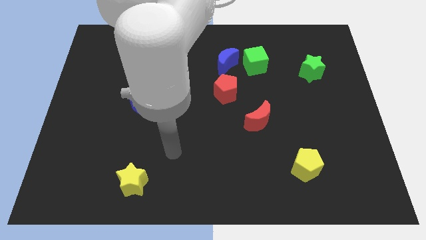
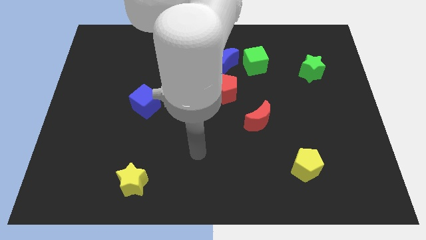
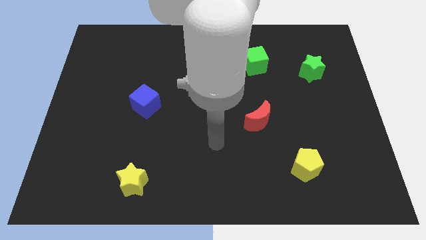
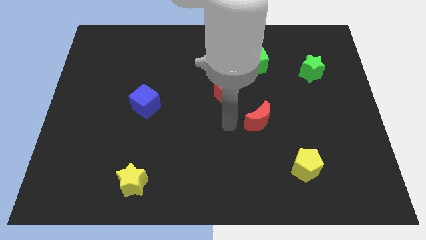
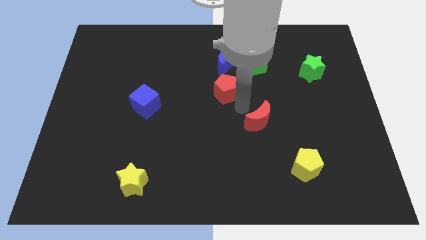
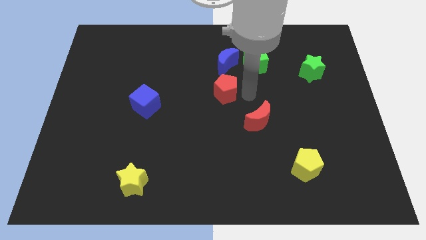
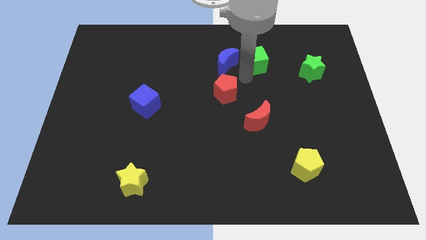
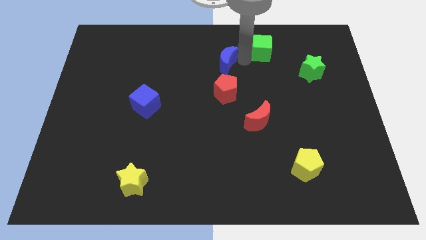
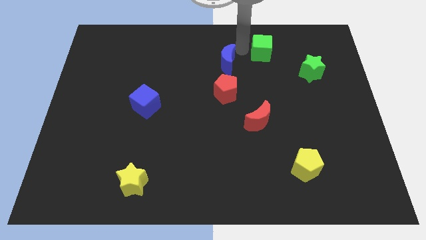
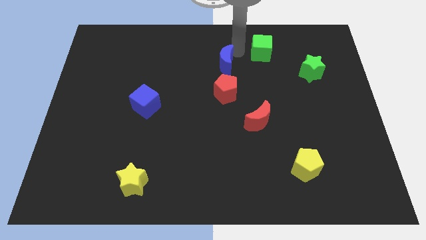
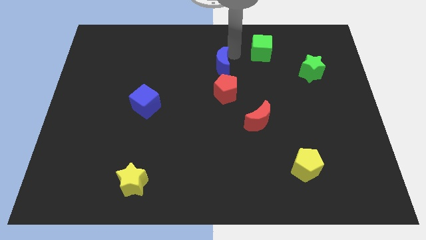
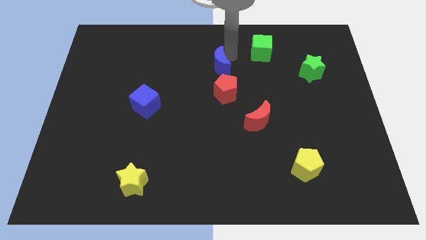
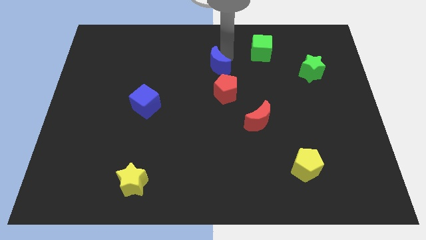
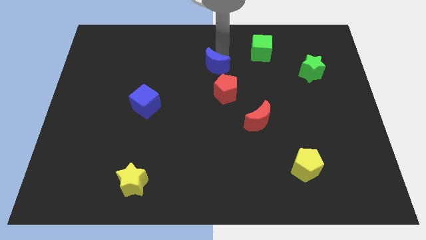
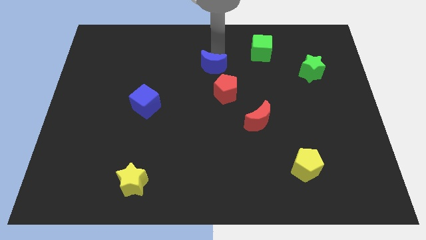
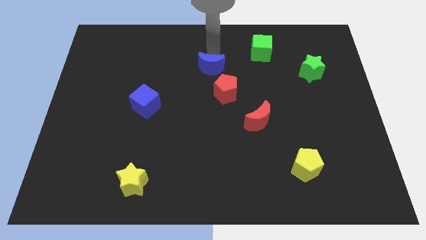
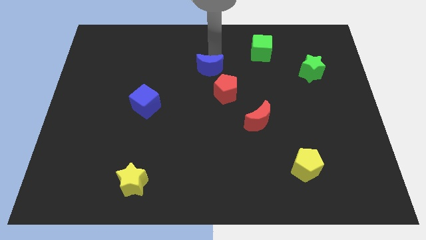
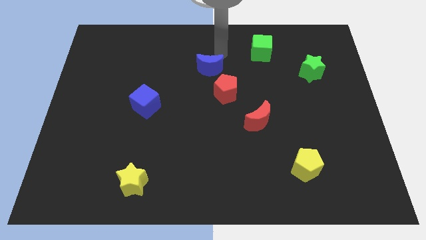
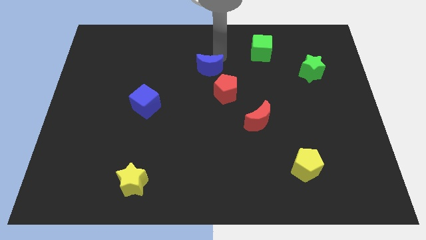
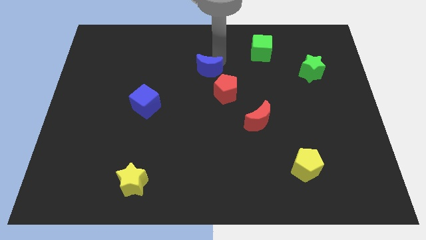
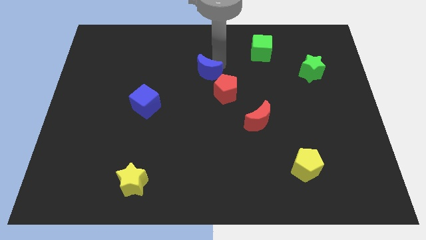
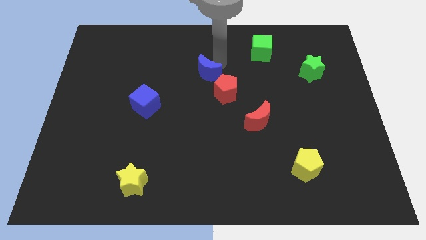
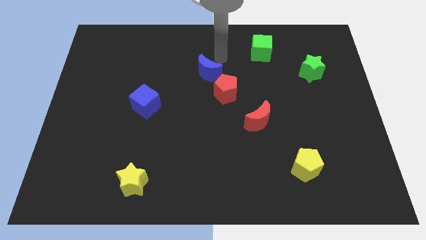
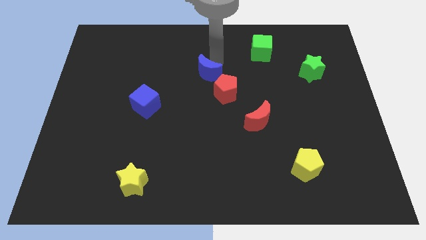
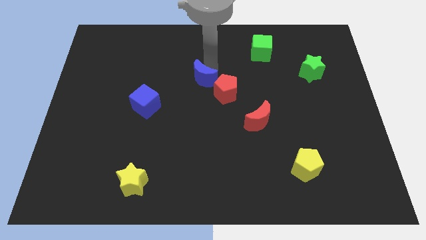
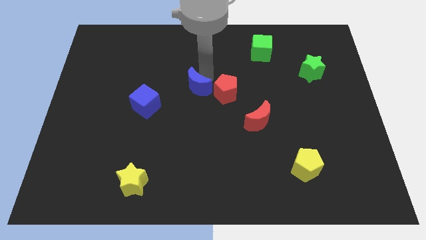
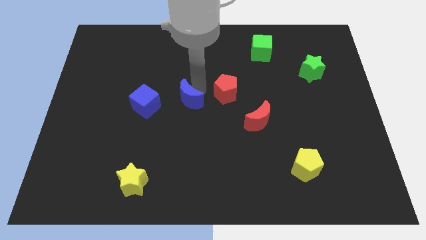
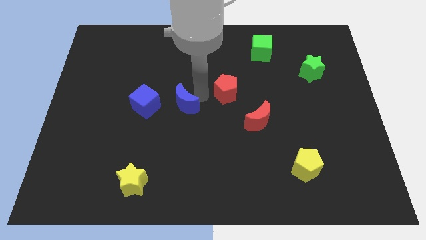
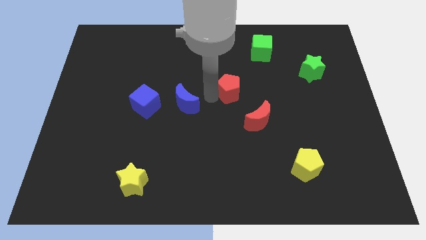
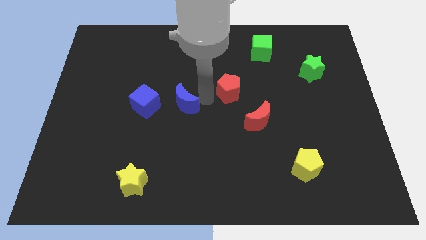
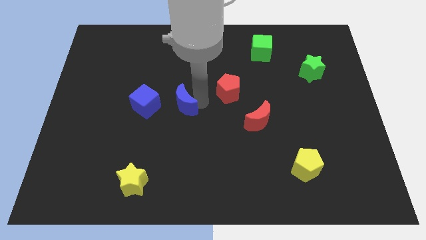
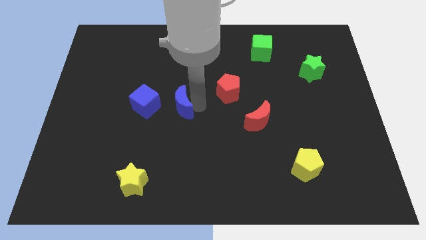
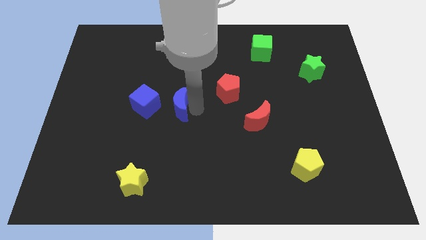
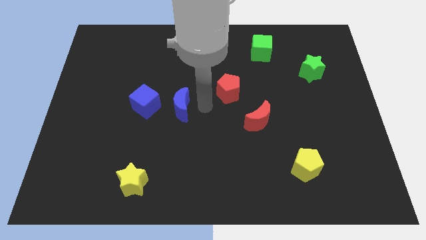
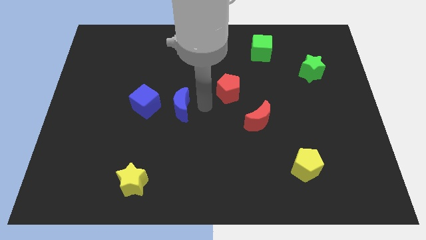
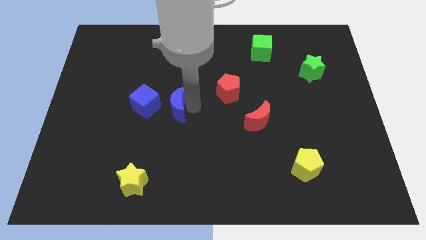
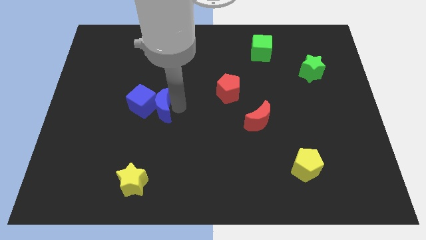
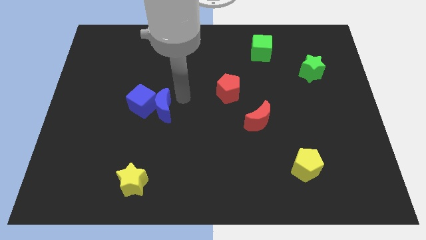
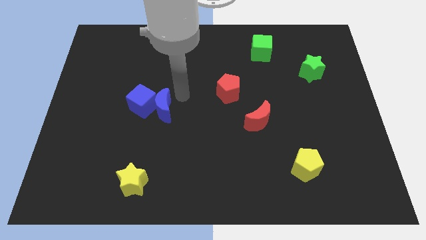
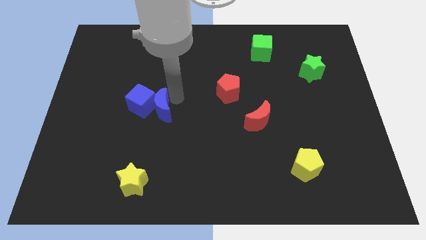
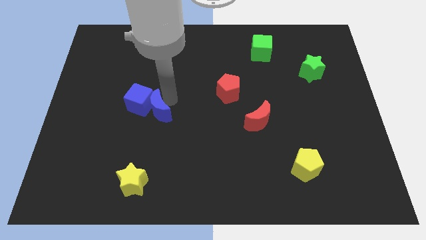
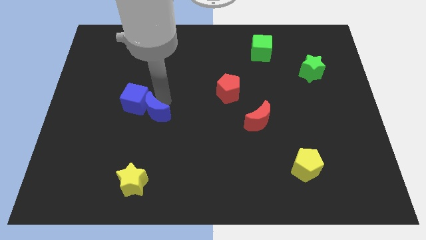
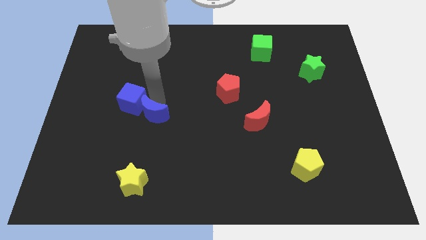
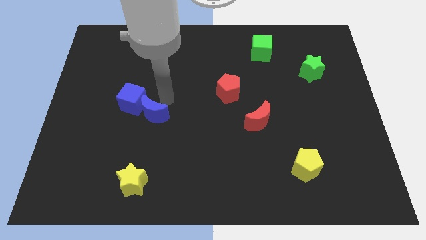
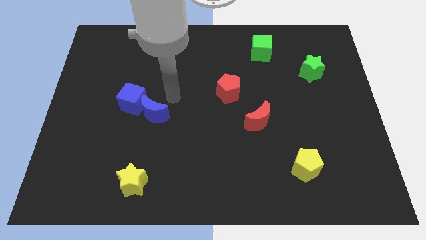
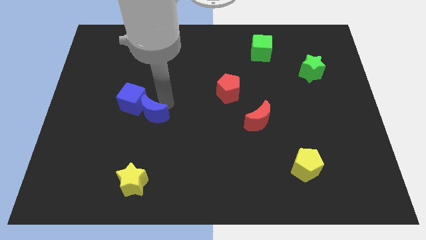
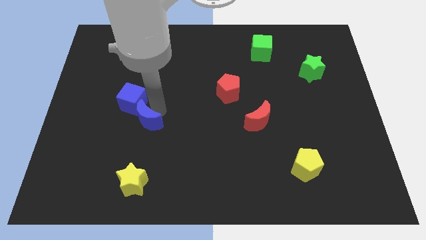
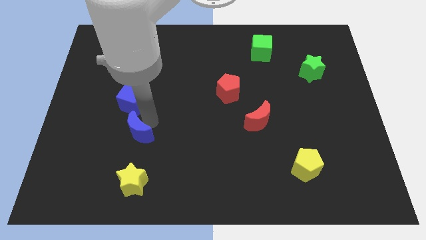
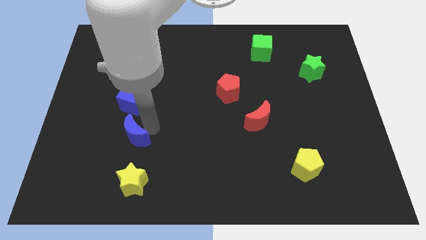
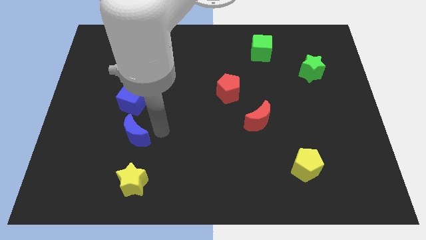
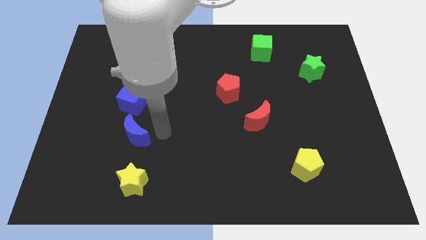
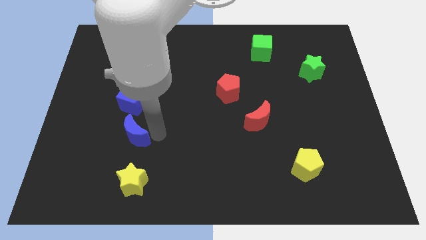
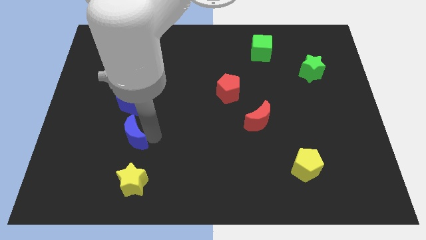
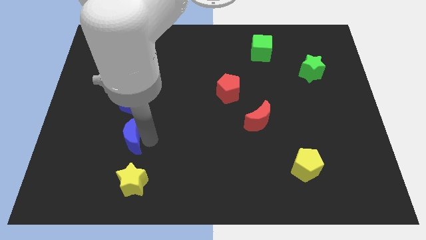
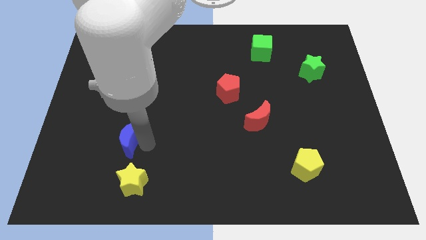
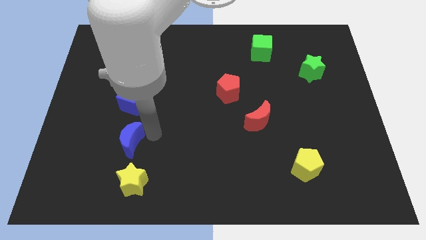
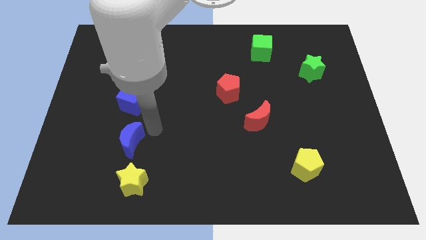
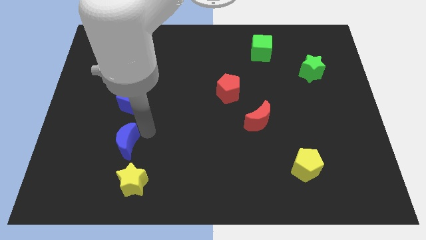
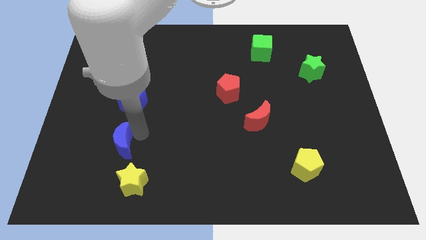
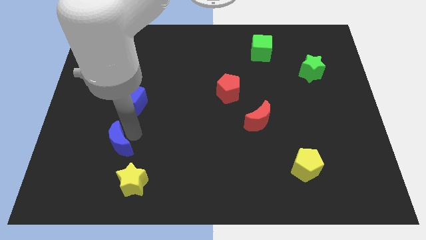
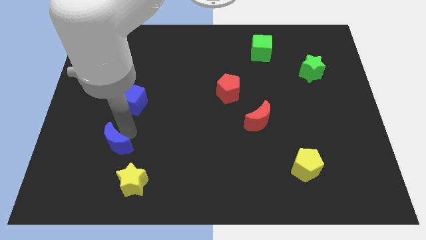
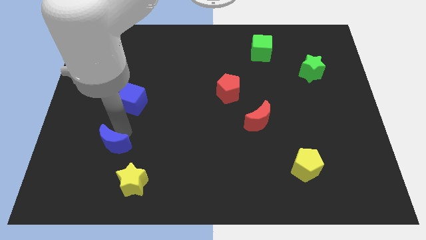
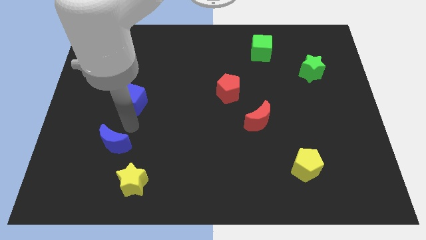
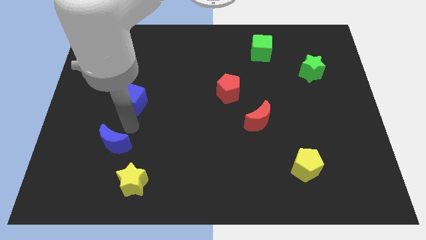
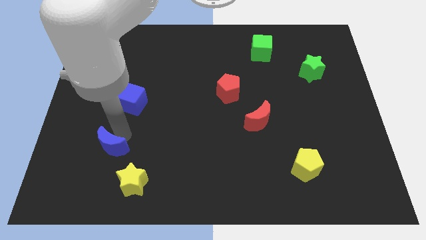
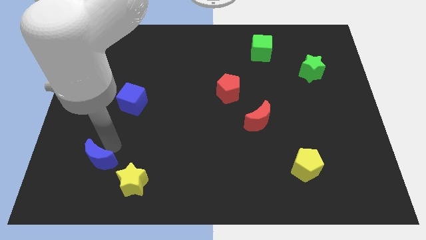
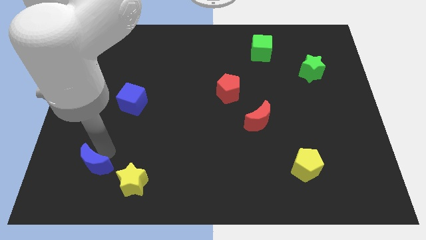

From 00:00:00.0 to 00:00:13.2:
put the blue moon to the left side of the yellow star

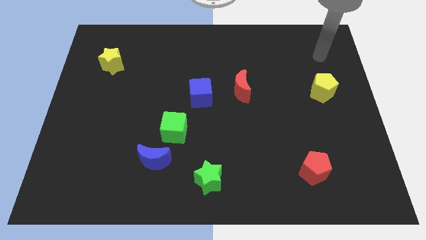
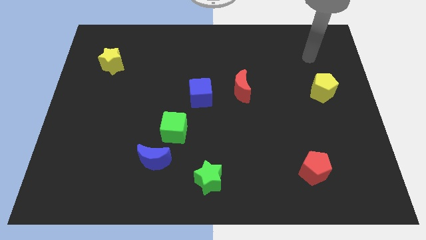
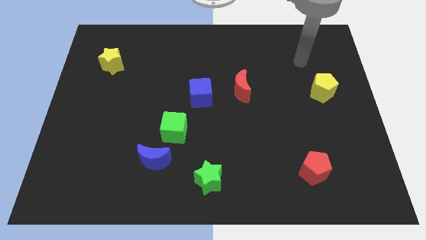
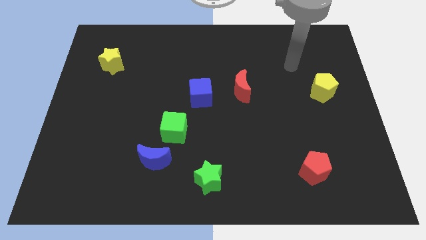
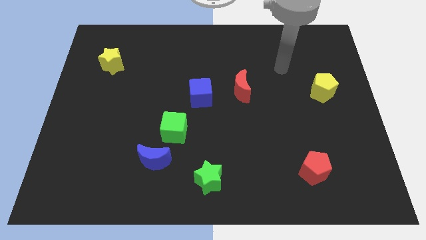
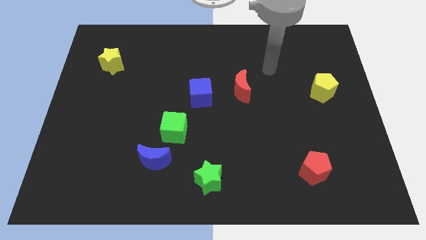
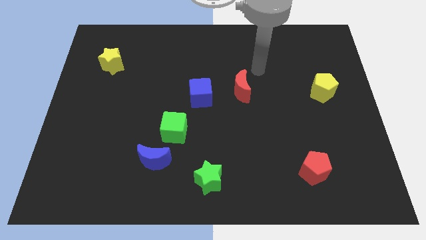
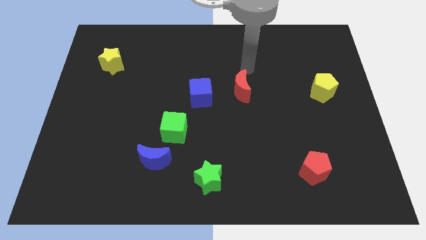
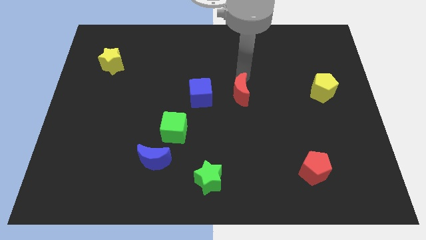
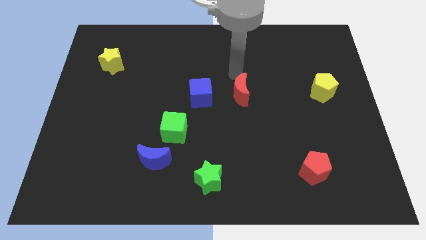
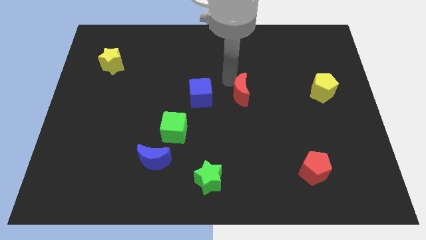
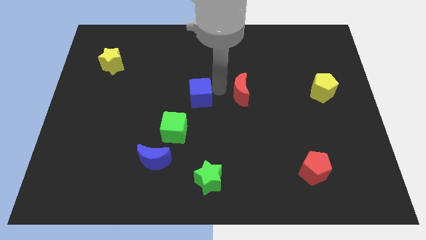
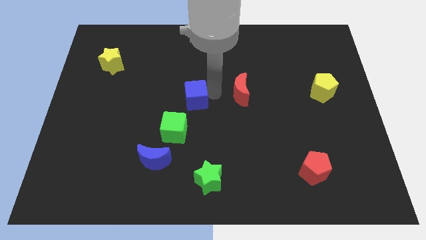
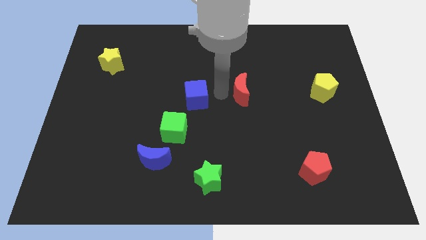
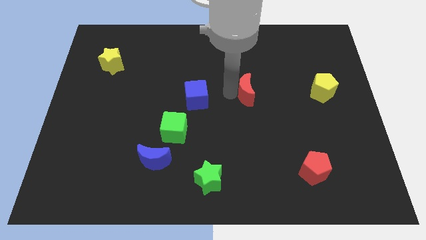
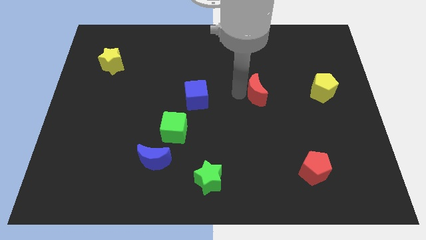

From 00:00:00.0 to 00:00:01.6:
move the red moon to the left side of the yellow pentagon
